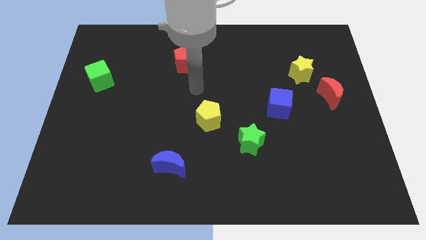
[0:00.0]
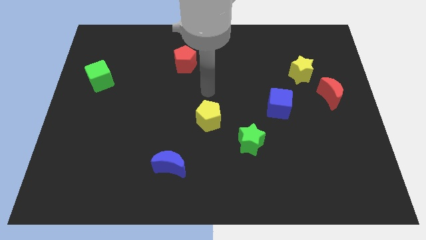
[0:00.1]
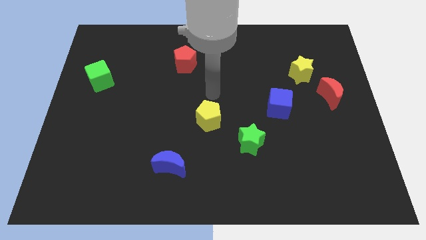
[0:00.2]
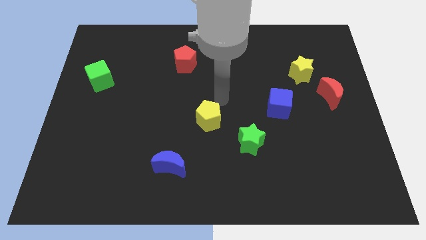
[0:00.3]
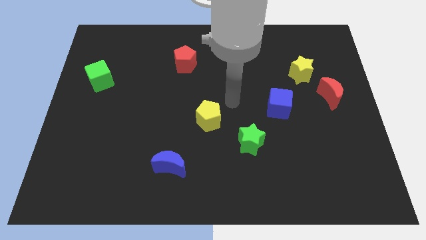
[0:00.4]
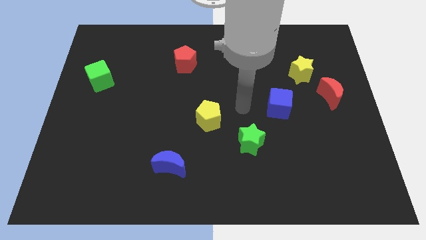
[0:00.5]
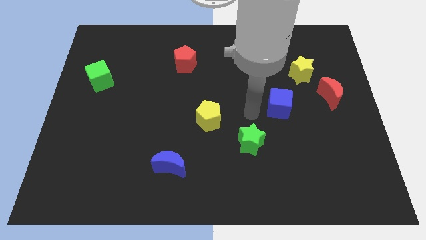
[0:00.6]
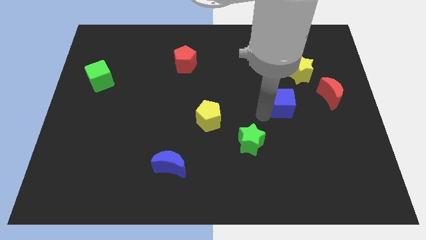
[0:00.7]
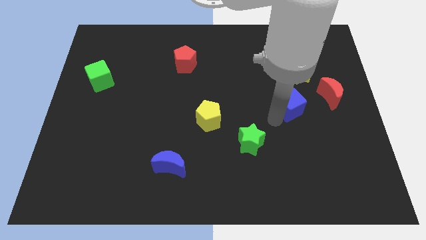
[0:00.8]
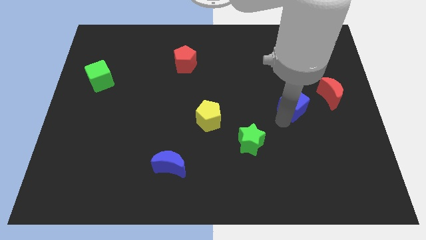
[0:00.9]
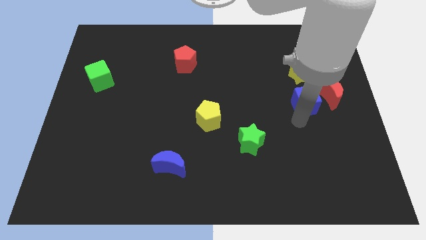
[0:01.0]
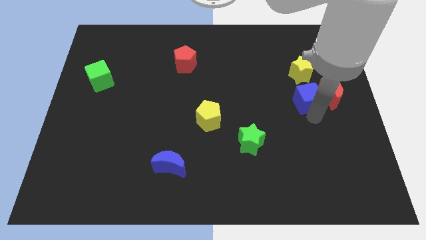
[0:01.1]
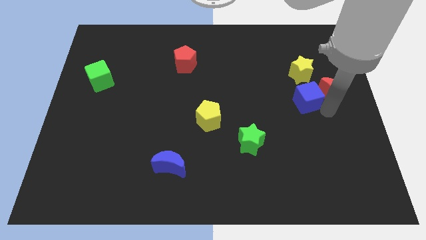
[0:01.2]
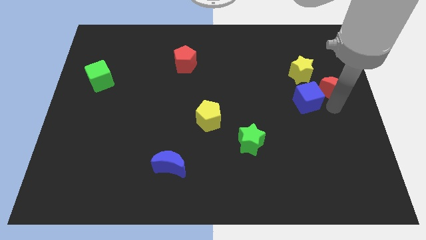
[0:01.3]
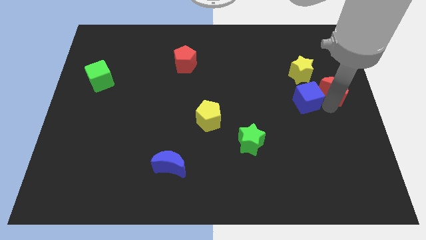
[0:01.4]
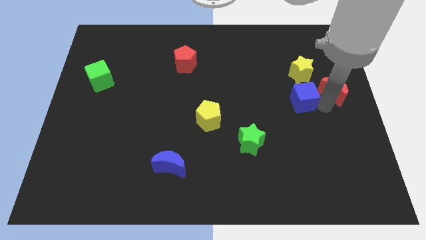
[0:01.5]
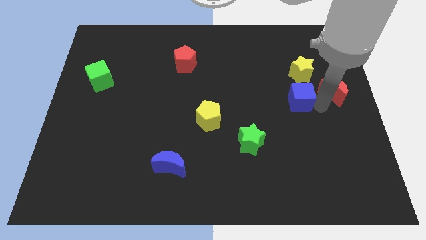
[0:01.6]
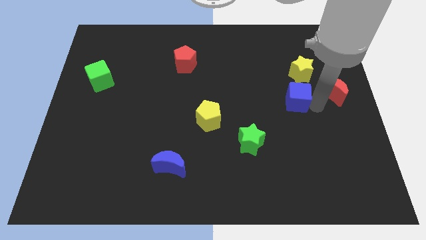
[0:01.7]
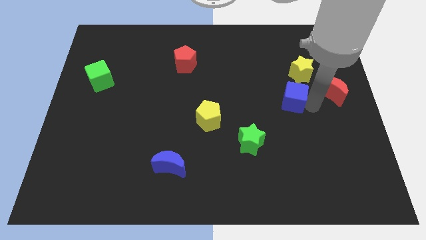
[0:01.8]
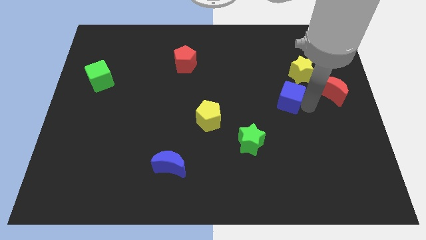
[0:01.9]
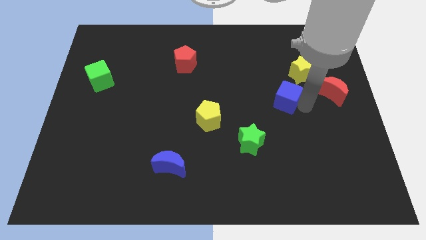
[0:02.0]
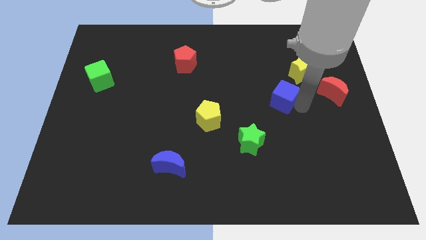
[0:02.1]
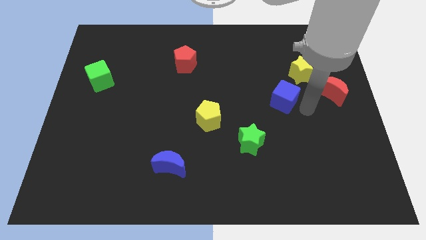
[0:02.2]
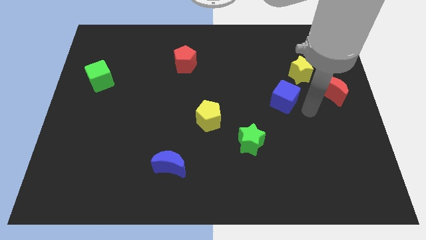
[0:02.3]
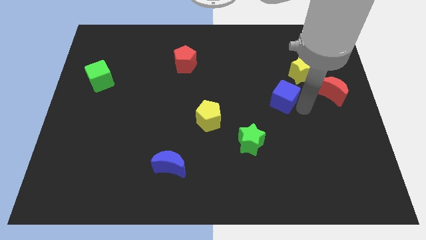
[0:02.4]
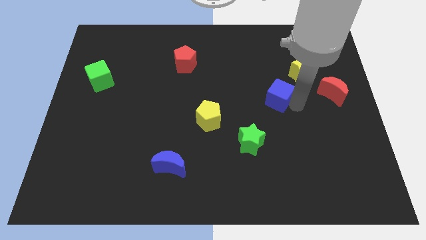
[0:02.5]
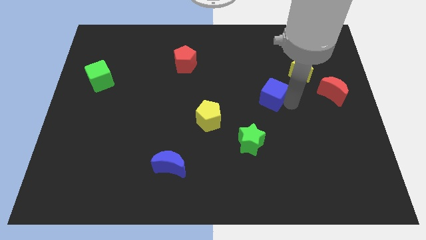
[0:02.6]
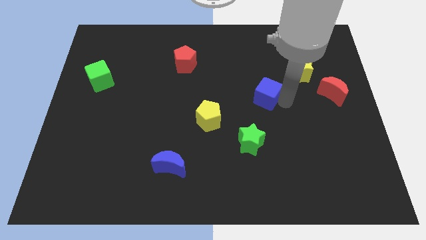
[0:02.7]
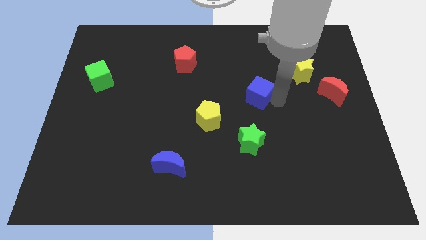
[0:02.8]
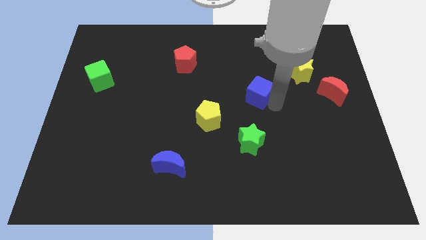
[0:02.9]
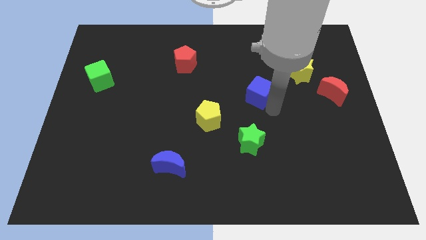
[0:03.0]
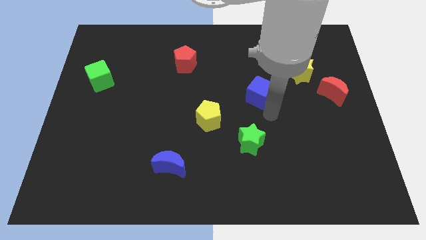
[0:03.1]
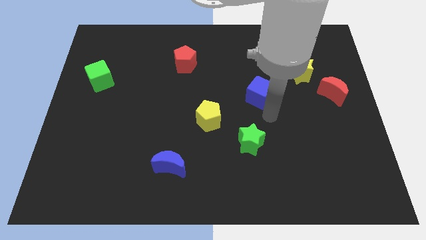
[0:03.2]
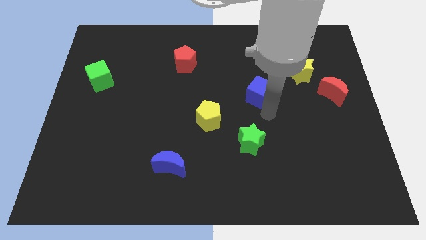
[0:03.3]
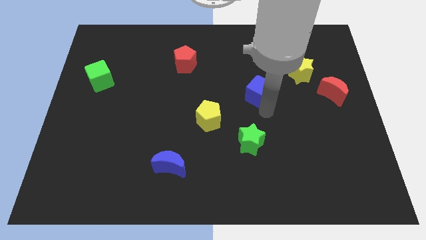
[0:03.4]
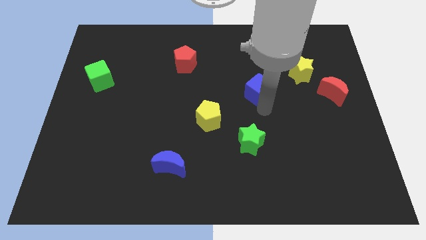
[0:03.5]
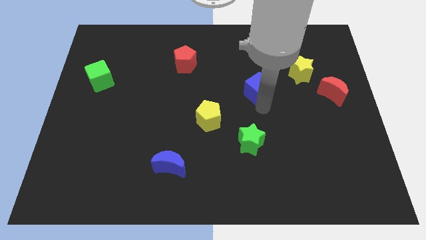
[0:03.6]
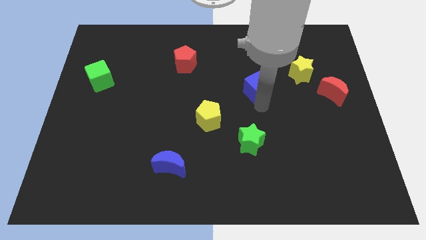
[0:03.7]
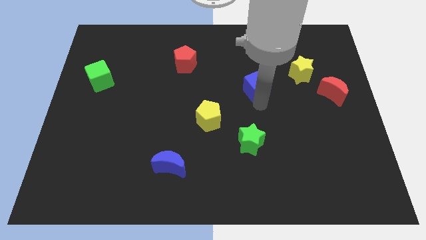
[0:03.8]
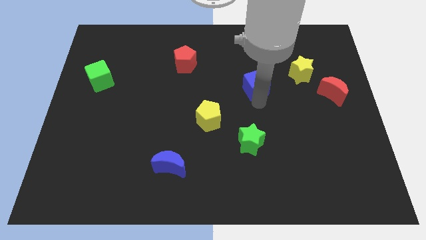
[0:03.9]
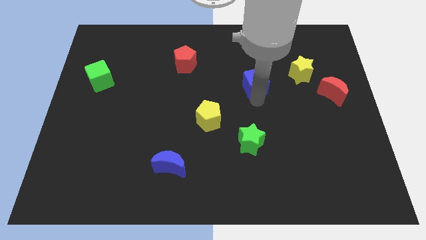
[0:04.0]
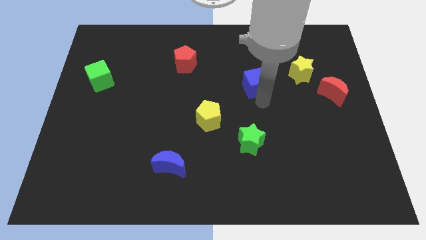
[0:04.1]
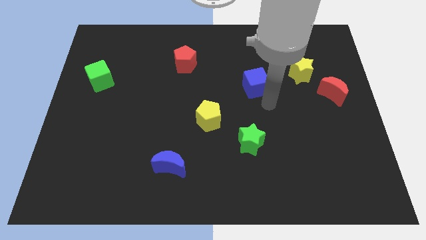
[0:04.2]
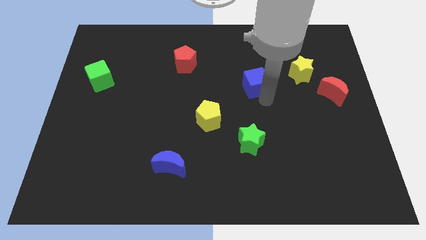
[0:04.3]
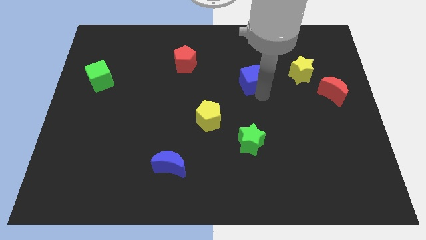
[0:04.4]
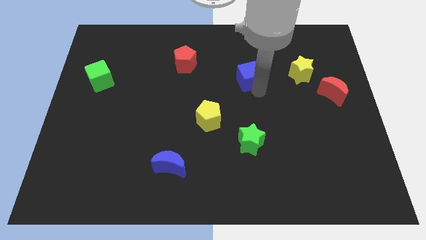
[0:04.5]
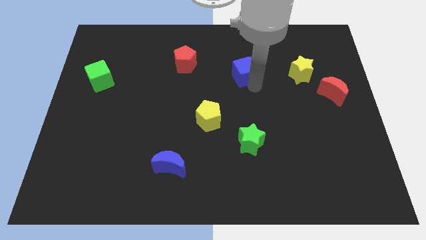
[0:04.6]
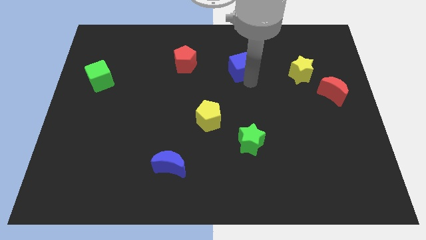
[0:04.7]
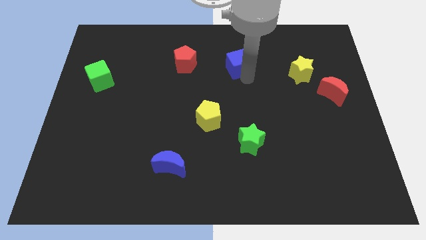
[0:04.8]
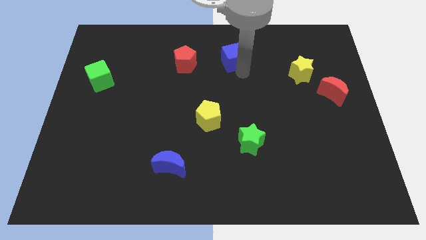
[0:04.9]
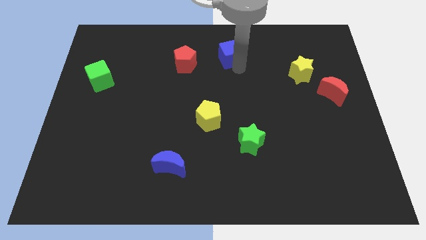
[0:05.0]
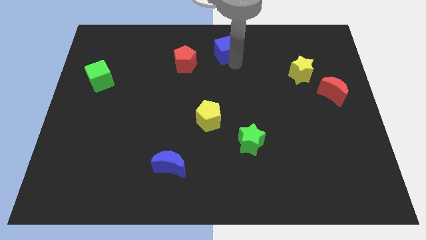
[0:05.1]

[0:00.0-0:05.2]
move the blue cube to the towards your base

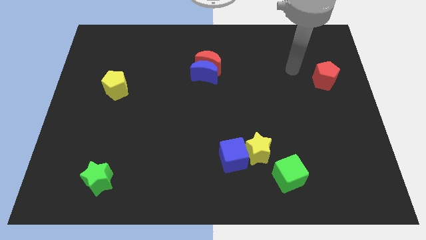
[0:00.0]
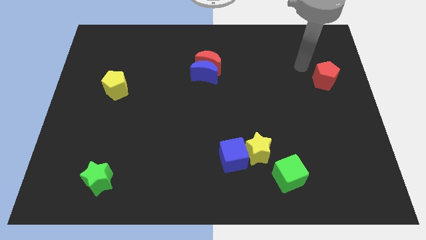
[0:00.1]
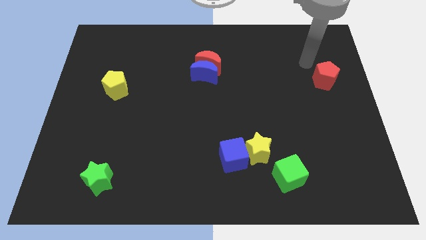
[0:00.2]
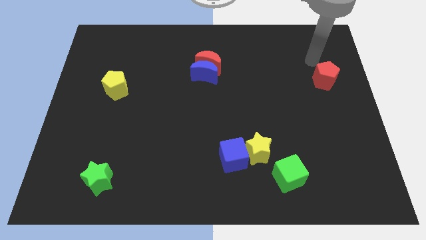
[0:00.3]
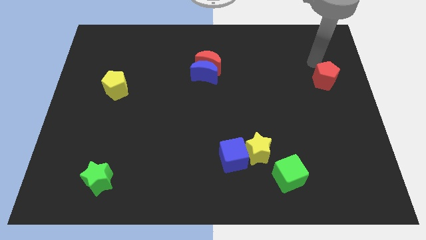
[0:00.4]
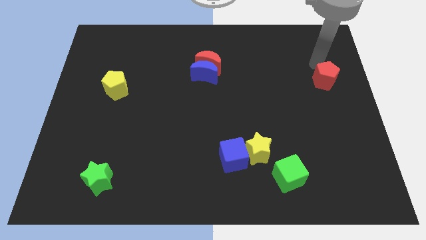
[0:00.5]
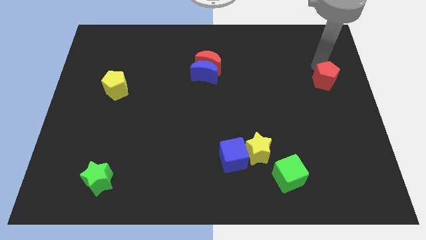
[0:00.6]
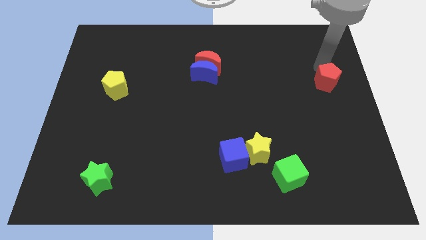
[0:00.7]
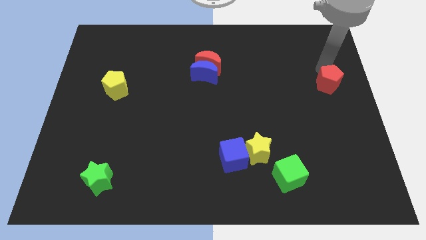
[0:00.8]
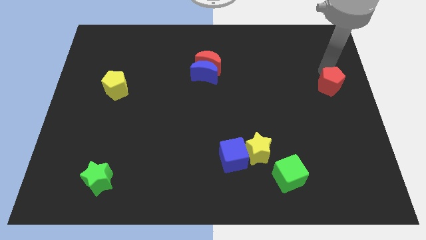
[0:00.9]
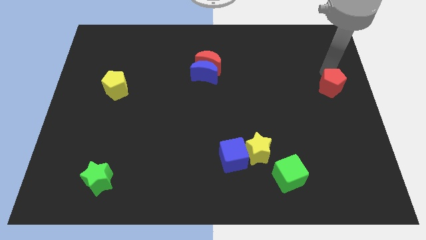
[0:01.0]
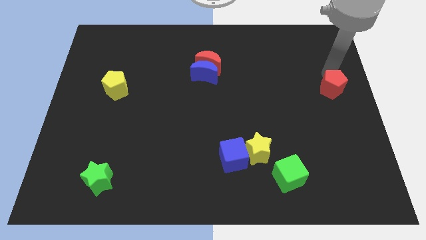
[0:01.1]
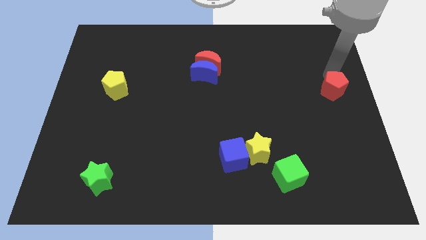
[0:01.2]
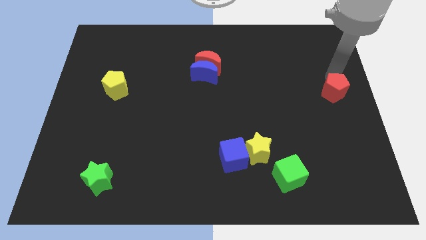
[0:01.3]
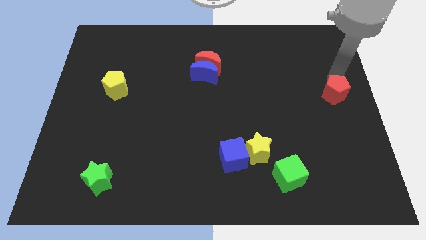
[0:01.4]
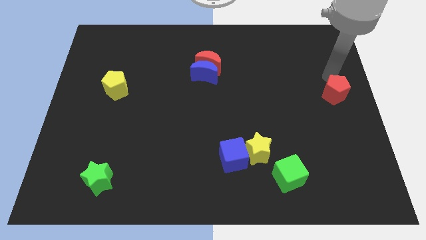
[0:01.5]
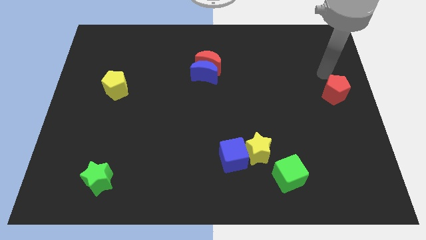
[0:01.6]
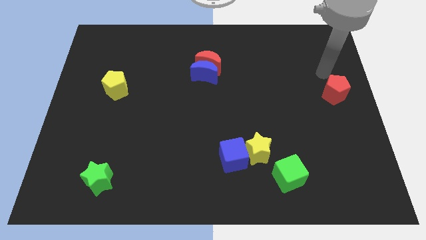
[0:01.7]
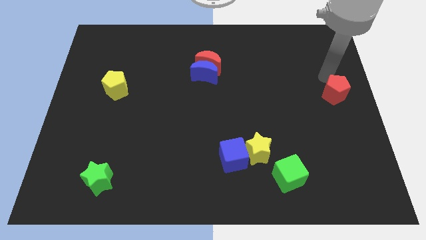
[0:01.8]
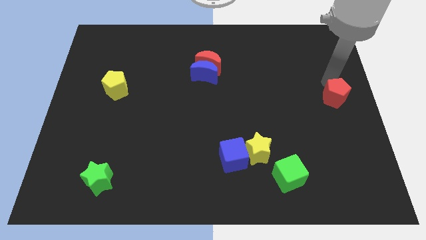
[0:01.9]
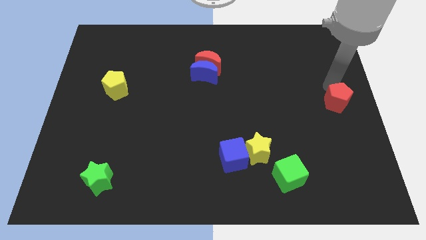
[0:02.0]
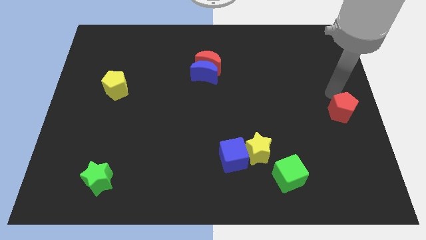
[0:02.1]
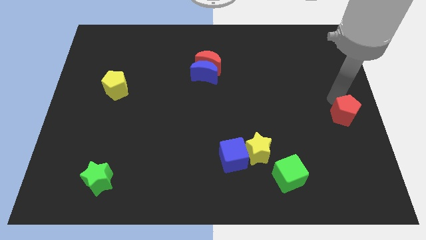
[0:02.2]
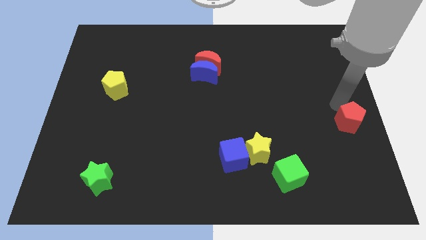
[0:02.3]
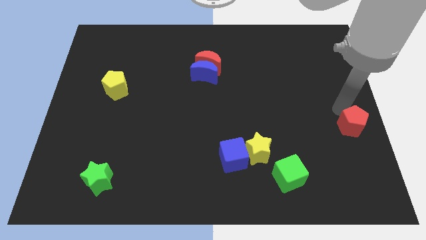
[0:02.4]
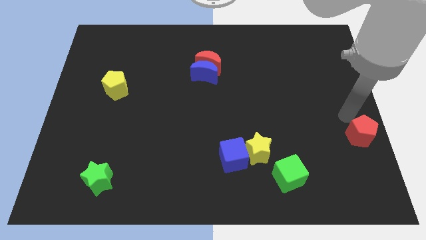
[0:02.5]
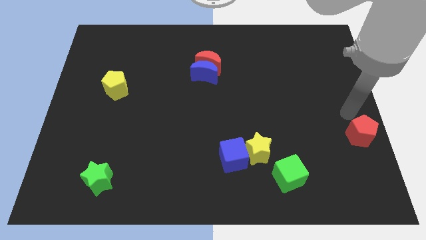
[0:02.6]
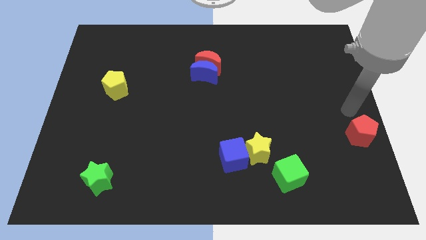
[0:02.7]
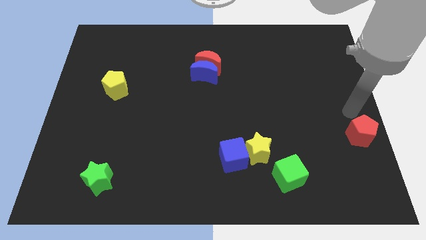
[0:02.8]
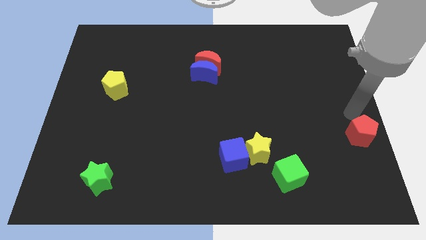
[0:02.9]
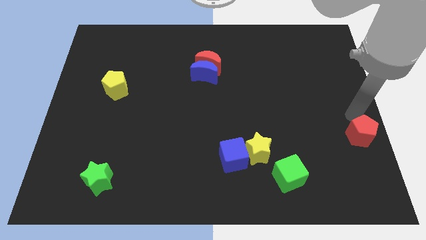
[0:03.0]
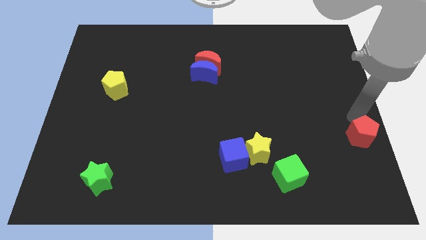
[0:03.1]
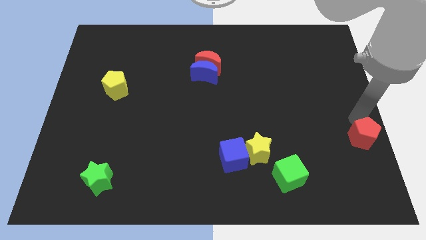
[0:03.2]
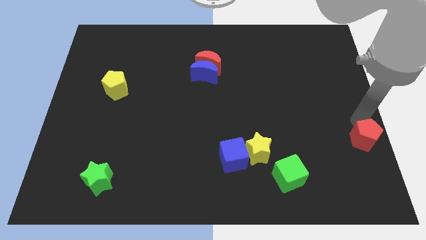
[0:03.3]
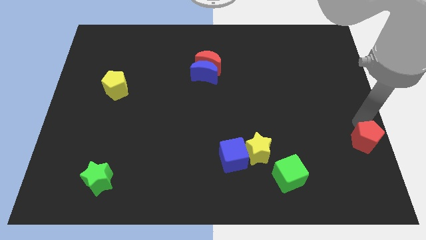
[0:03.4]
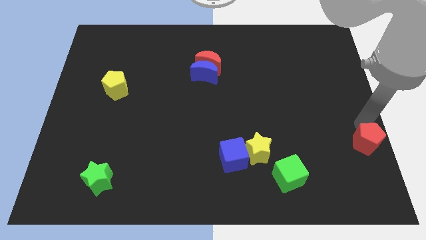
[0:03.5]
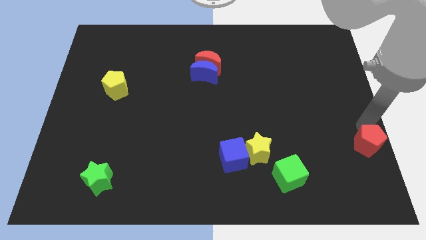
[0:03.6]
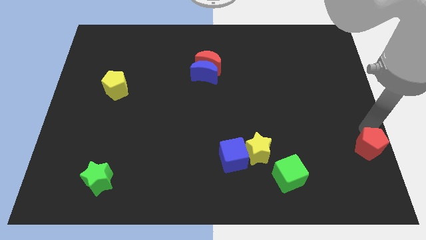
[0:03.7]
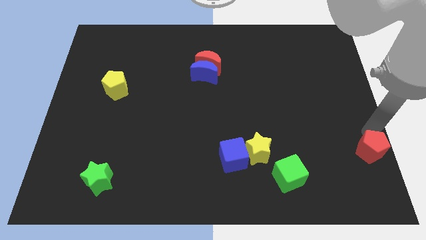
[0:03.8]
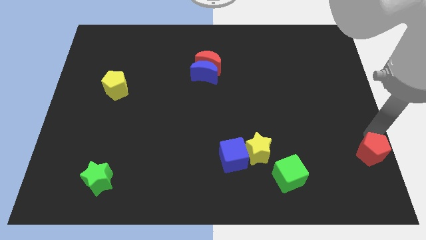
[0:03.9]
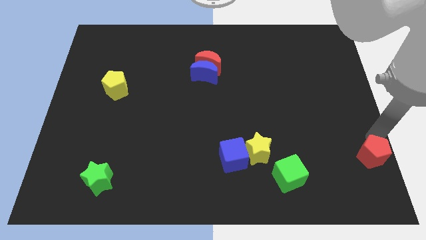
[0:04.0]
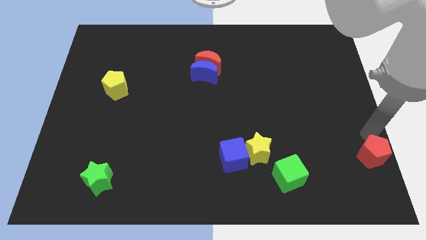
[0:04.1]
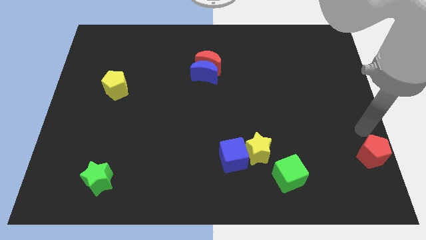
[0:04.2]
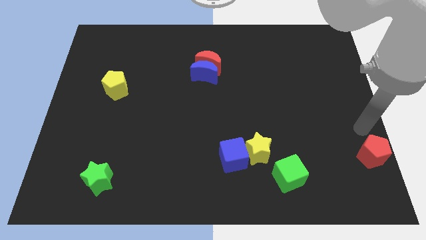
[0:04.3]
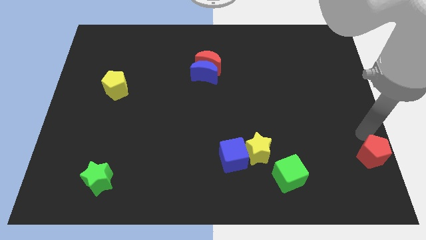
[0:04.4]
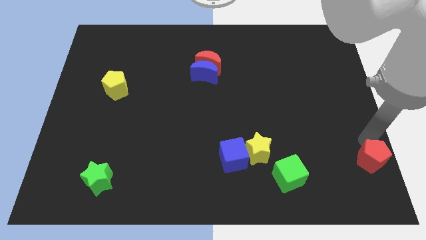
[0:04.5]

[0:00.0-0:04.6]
move the red pentagon to the bottom right corner
